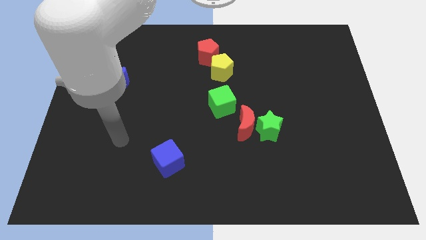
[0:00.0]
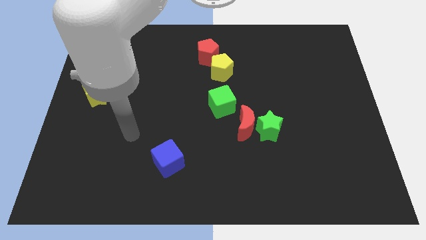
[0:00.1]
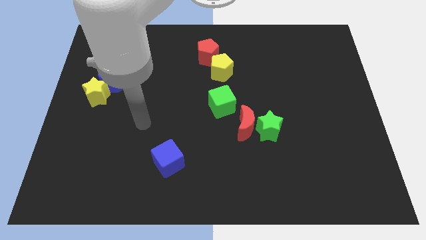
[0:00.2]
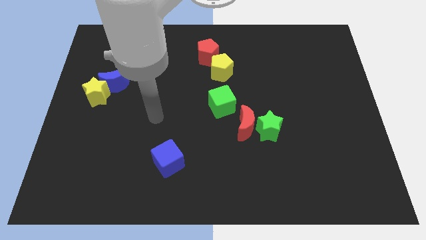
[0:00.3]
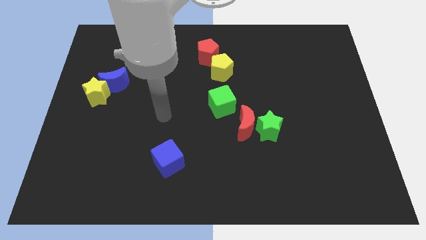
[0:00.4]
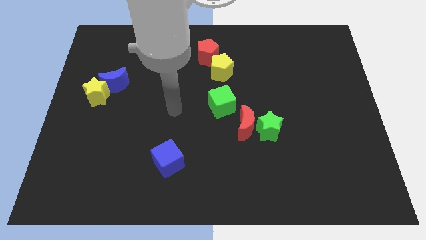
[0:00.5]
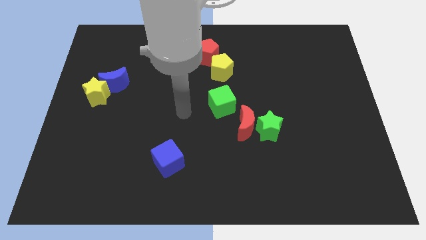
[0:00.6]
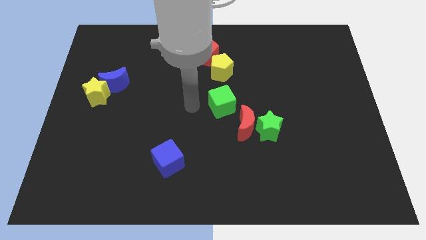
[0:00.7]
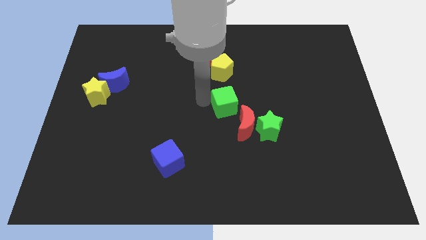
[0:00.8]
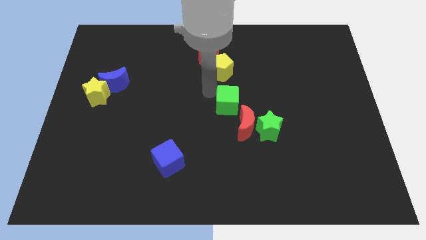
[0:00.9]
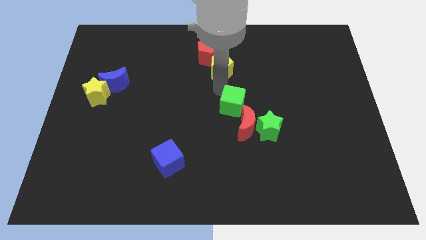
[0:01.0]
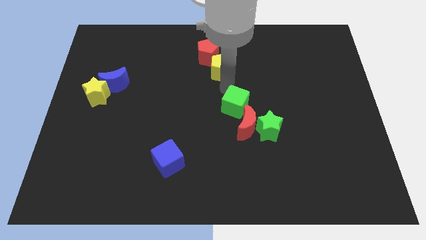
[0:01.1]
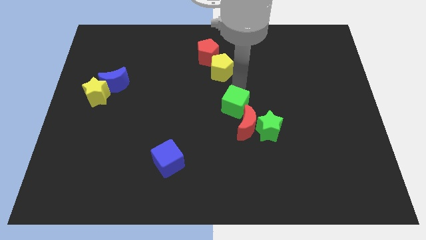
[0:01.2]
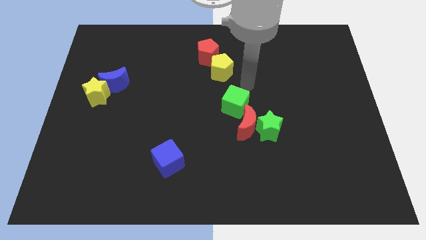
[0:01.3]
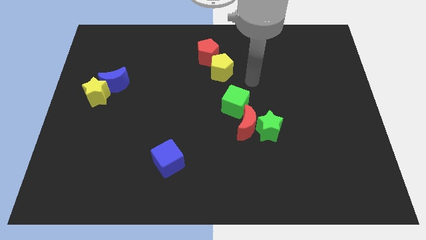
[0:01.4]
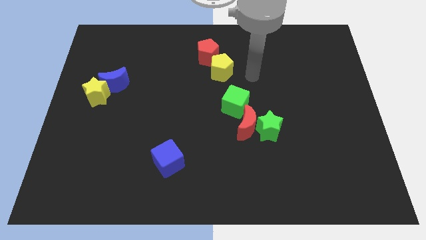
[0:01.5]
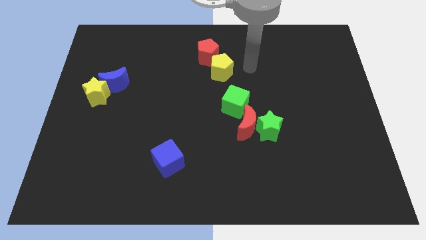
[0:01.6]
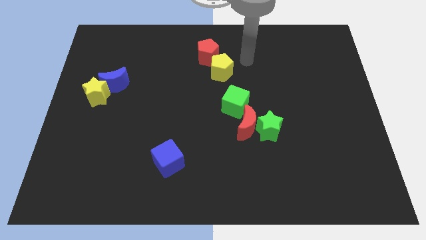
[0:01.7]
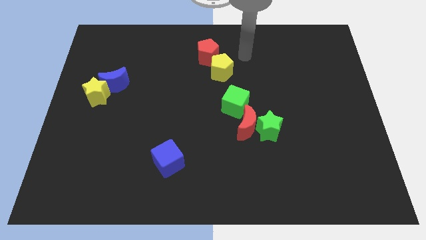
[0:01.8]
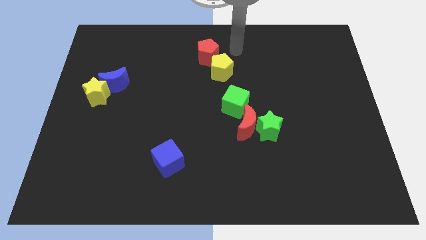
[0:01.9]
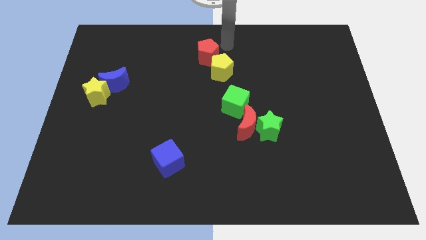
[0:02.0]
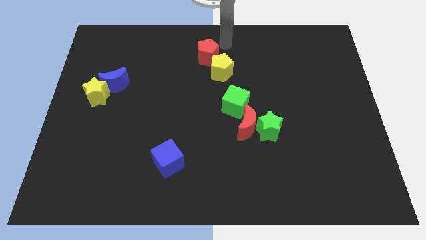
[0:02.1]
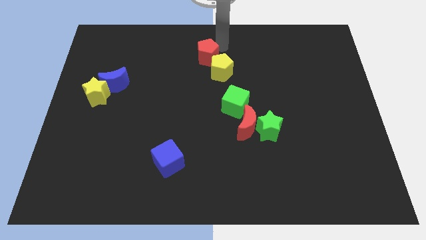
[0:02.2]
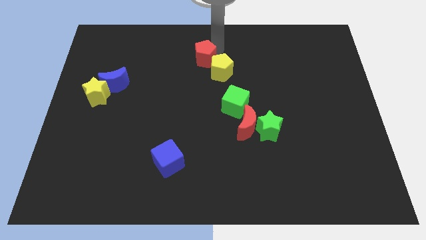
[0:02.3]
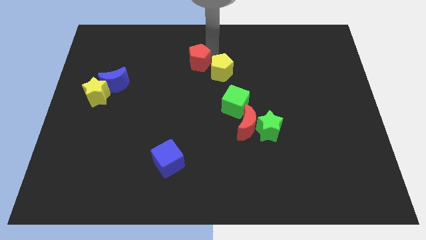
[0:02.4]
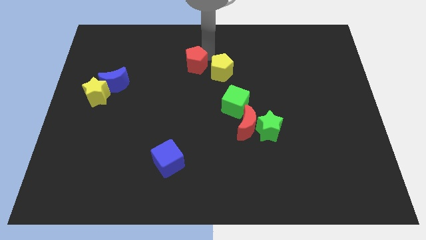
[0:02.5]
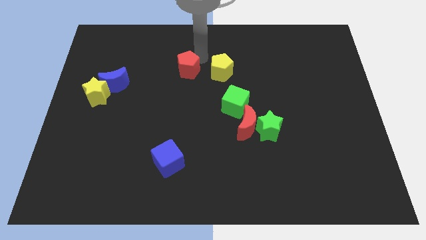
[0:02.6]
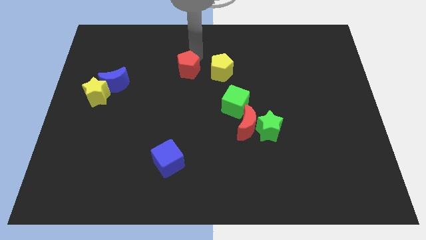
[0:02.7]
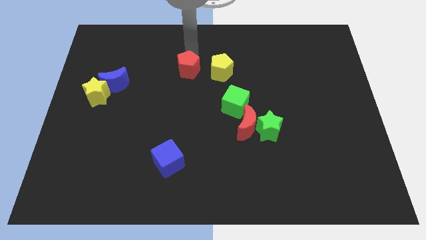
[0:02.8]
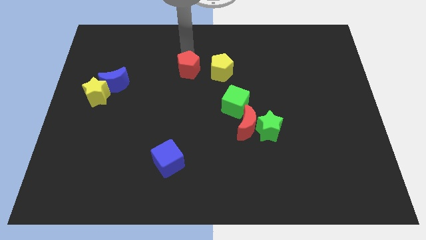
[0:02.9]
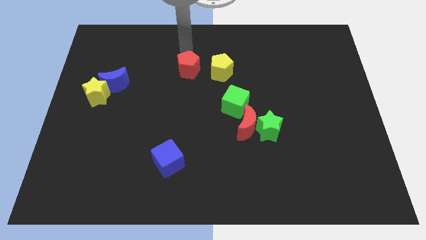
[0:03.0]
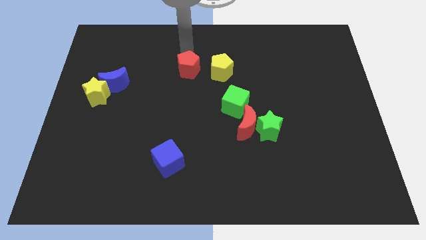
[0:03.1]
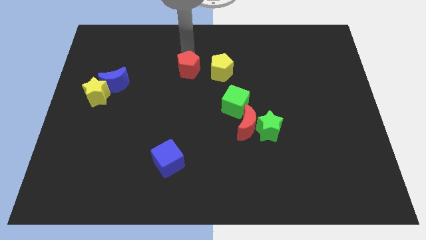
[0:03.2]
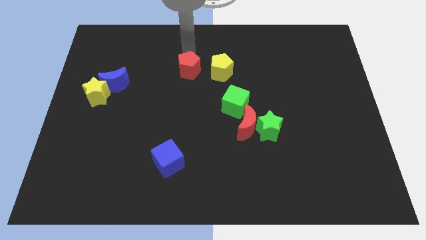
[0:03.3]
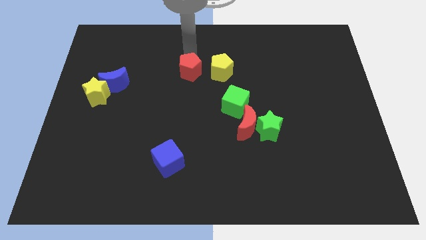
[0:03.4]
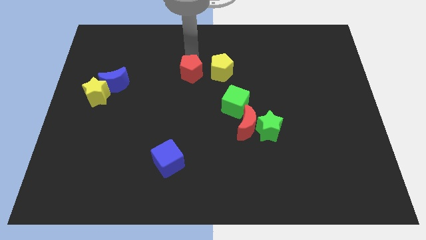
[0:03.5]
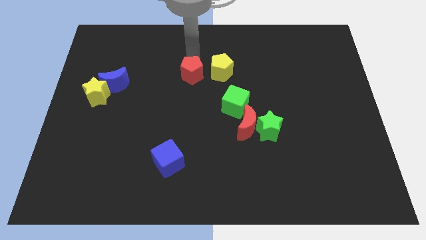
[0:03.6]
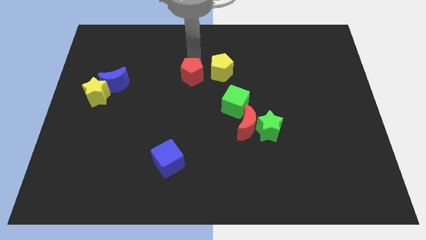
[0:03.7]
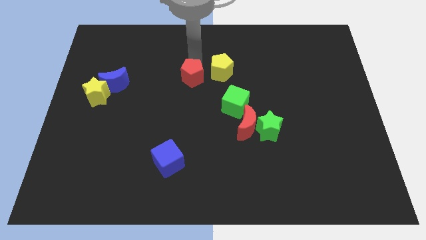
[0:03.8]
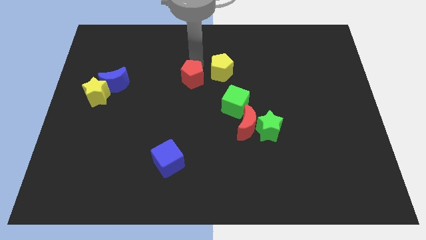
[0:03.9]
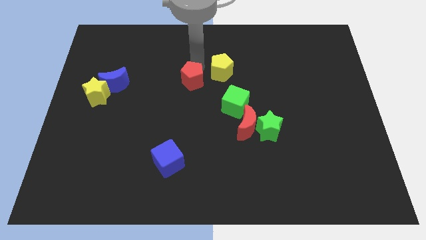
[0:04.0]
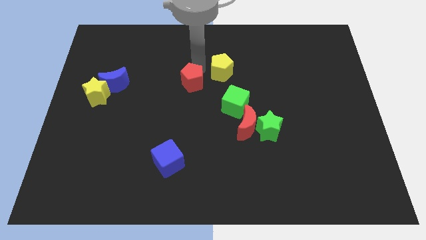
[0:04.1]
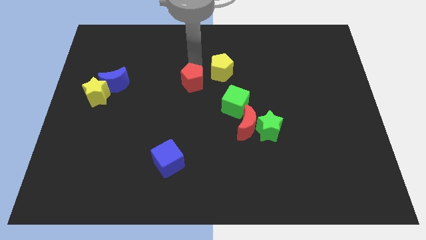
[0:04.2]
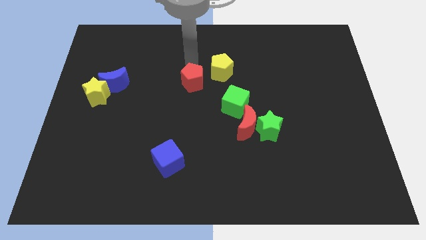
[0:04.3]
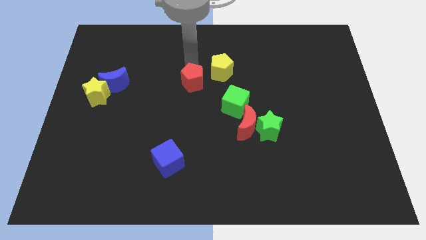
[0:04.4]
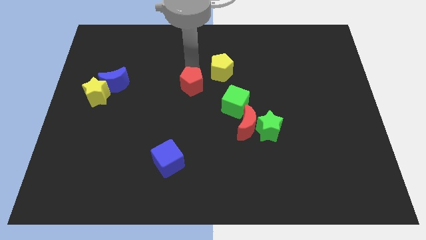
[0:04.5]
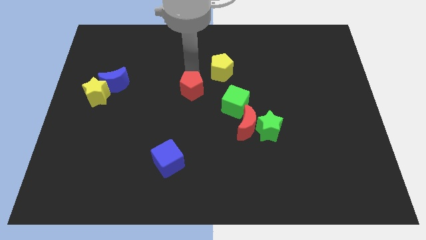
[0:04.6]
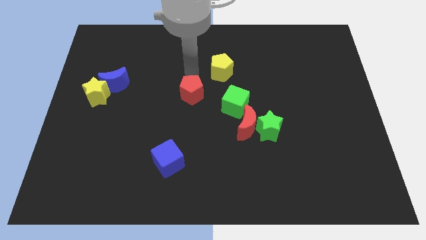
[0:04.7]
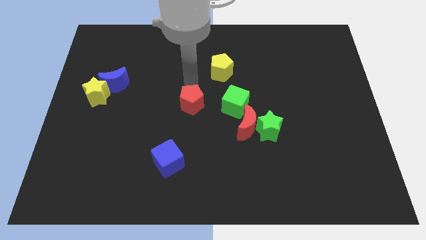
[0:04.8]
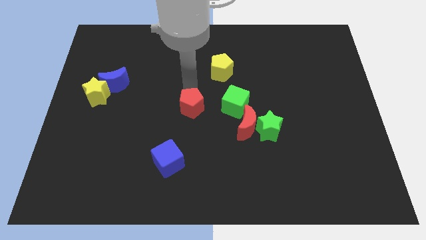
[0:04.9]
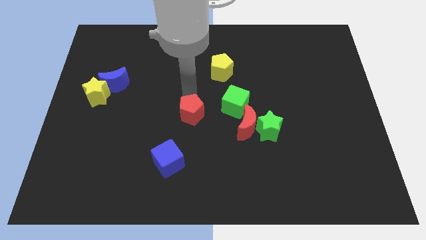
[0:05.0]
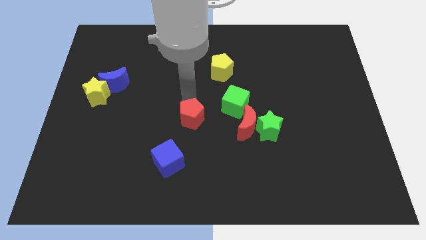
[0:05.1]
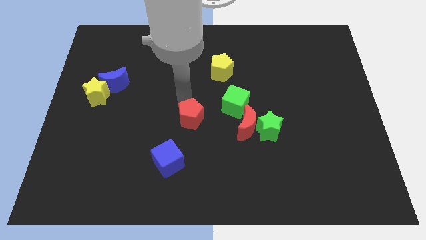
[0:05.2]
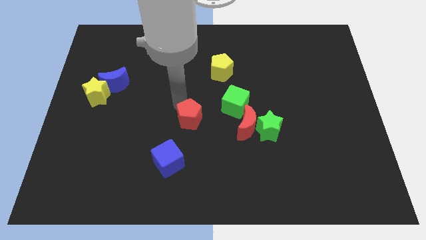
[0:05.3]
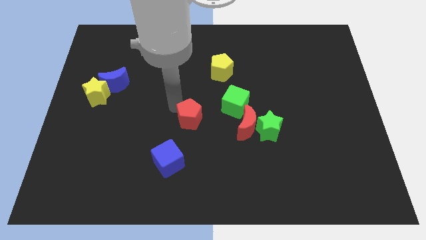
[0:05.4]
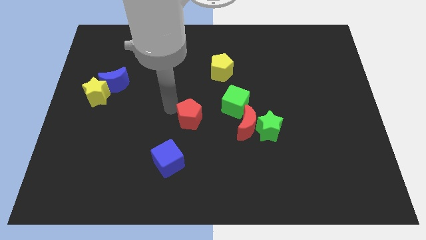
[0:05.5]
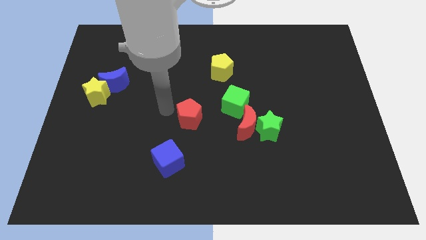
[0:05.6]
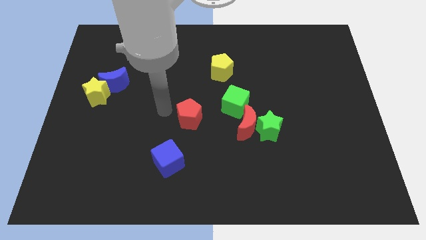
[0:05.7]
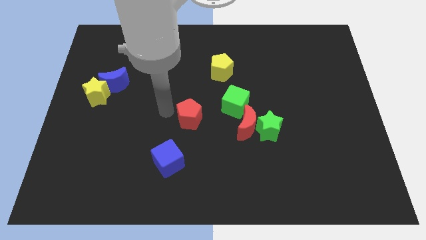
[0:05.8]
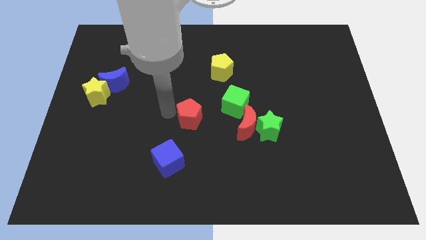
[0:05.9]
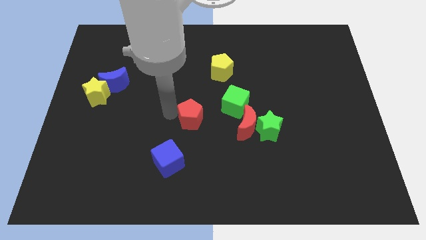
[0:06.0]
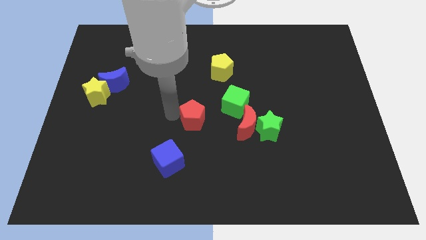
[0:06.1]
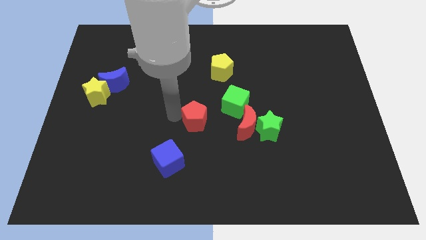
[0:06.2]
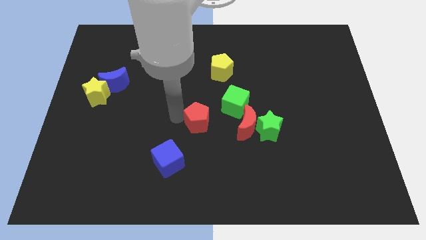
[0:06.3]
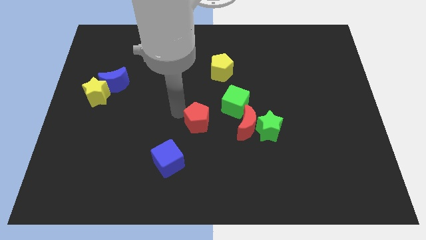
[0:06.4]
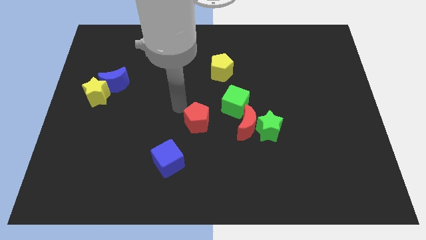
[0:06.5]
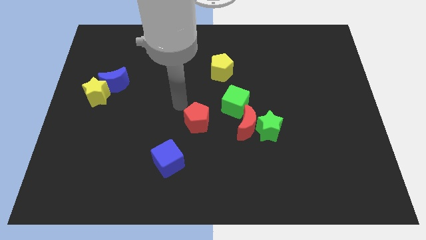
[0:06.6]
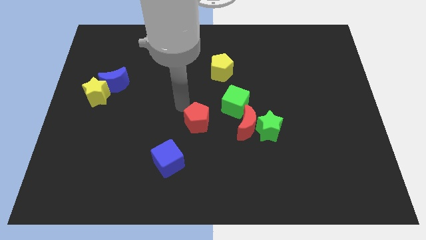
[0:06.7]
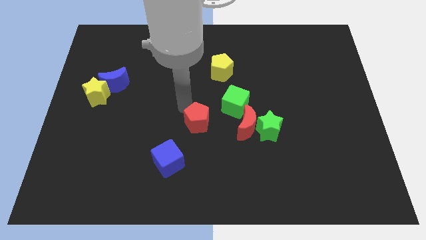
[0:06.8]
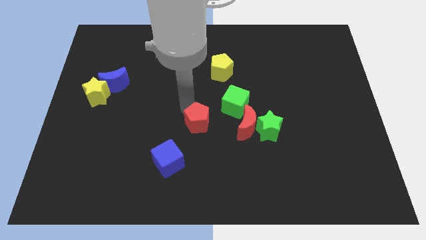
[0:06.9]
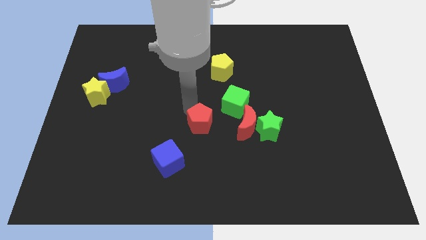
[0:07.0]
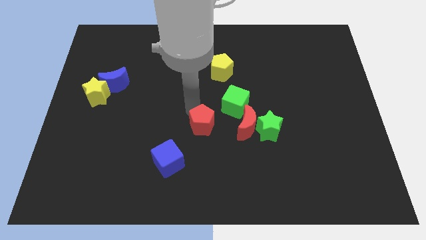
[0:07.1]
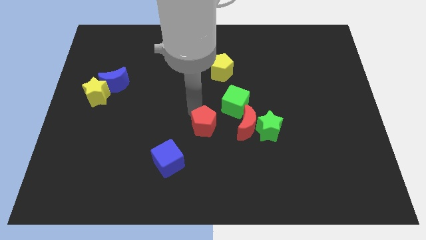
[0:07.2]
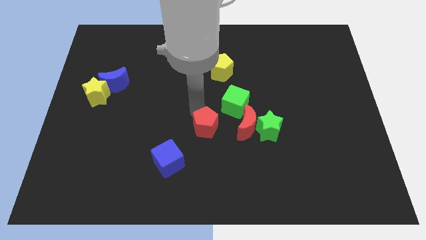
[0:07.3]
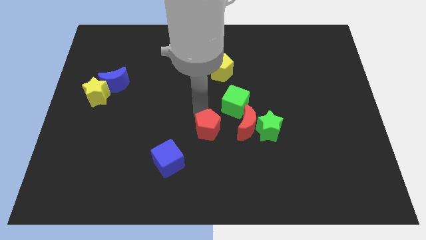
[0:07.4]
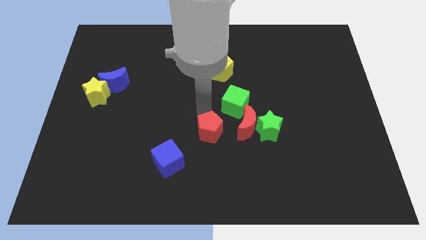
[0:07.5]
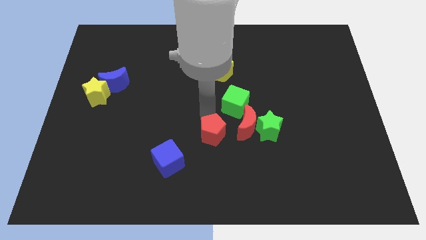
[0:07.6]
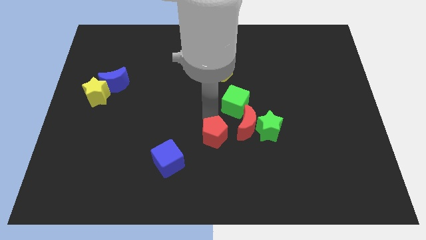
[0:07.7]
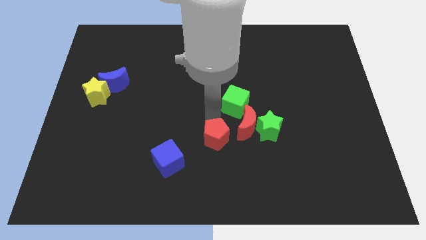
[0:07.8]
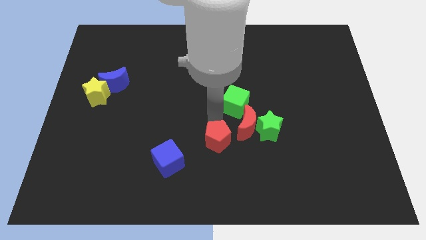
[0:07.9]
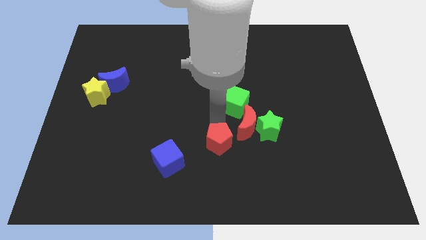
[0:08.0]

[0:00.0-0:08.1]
push the red pentagon to the right side of the blue cube

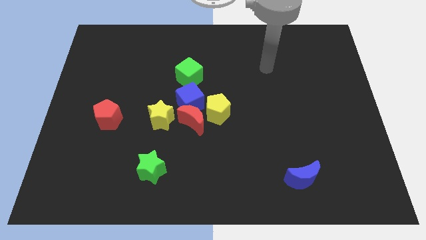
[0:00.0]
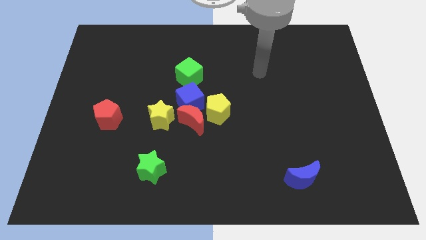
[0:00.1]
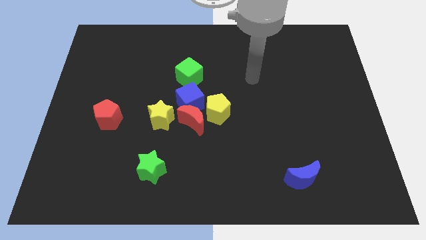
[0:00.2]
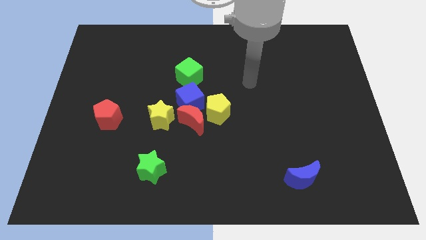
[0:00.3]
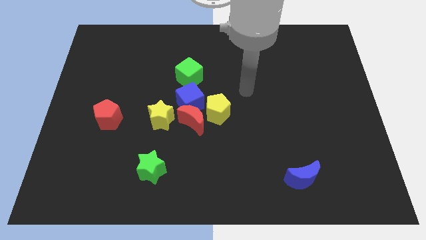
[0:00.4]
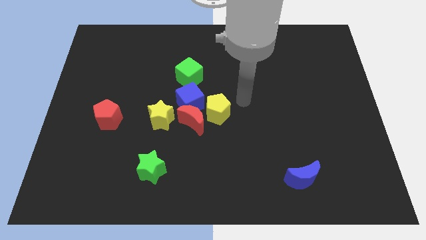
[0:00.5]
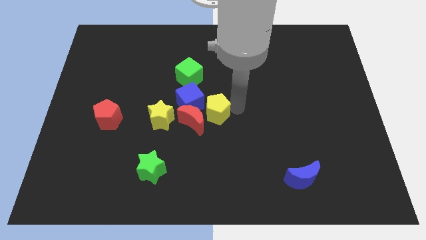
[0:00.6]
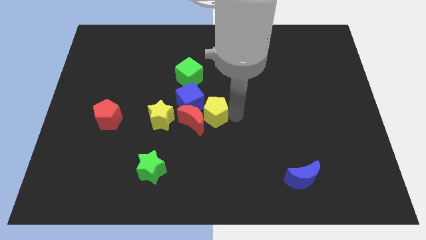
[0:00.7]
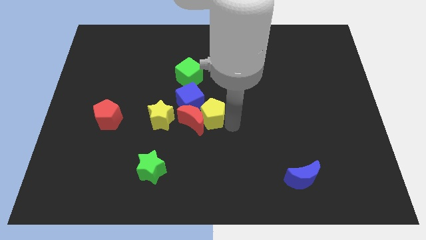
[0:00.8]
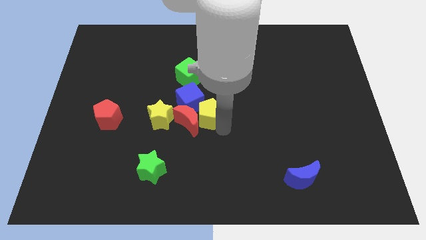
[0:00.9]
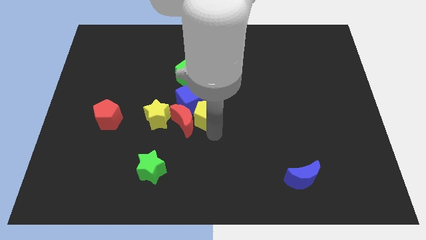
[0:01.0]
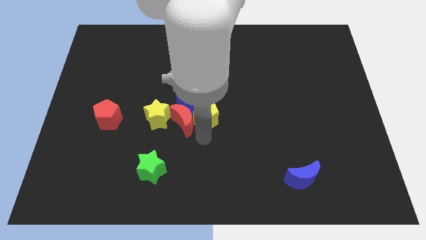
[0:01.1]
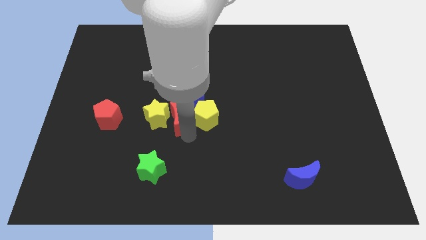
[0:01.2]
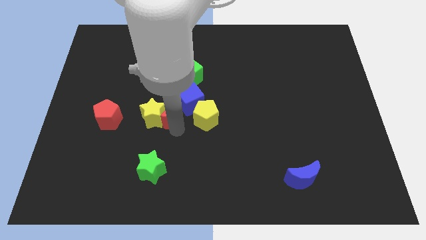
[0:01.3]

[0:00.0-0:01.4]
put the blue cube just right of the red moon
